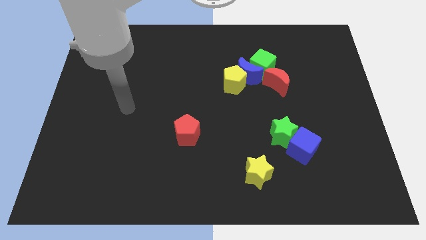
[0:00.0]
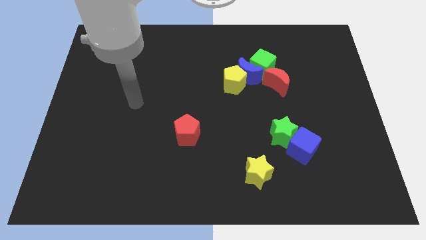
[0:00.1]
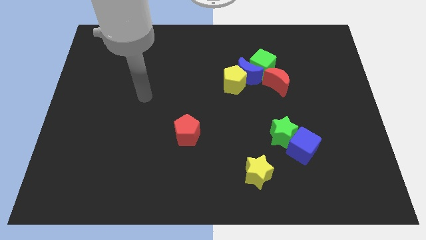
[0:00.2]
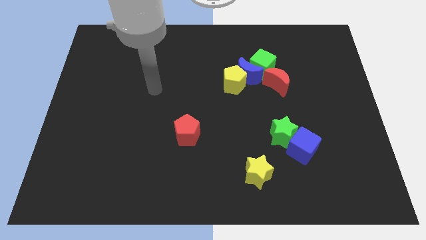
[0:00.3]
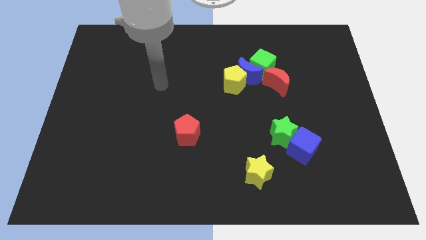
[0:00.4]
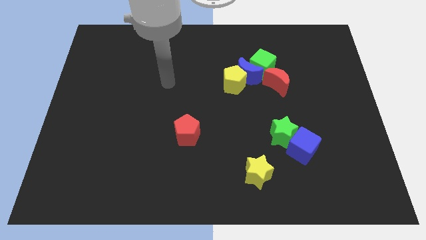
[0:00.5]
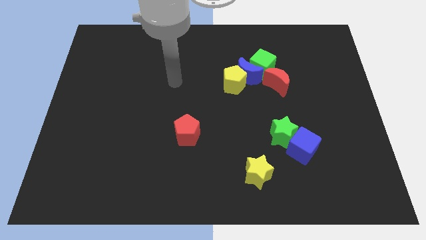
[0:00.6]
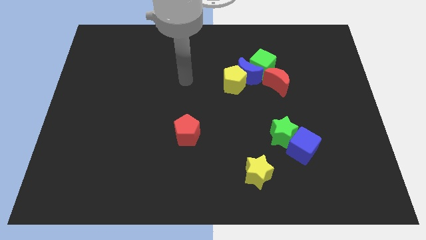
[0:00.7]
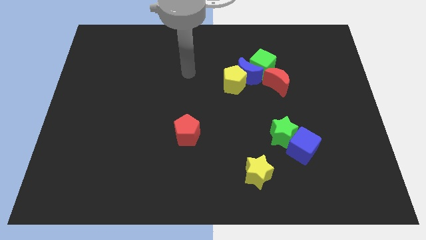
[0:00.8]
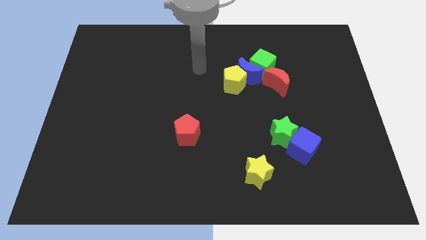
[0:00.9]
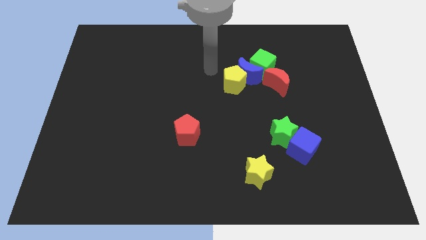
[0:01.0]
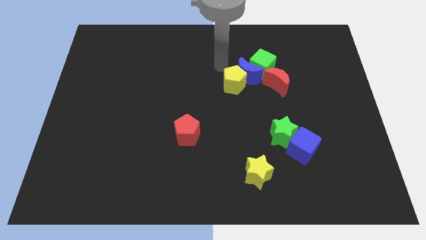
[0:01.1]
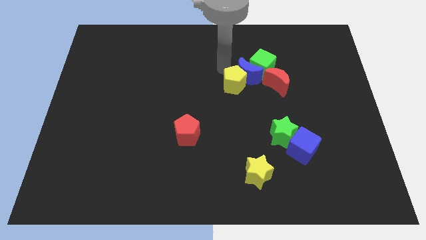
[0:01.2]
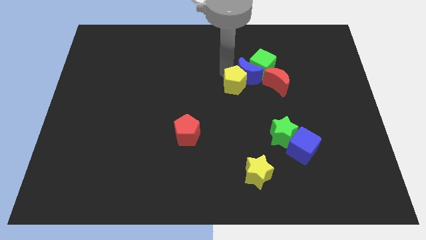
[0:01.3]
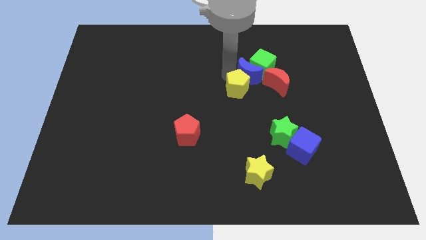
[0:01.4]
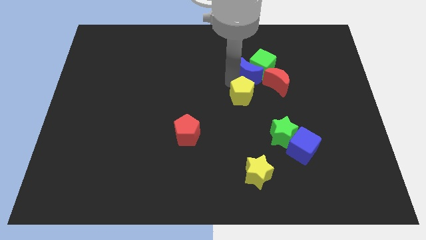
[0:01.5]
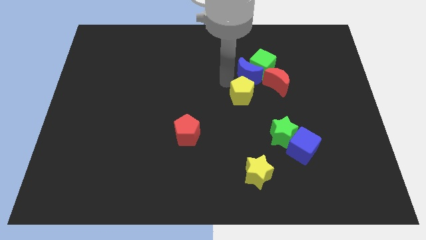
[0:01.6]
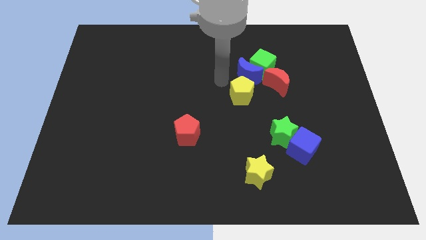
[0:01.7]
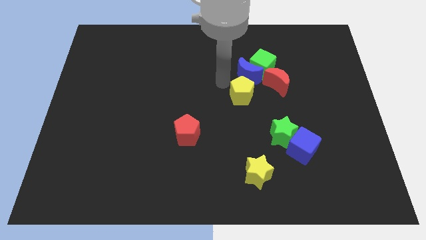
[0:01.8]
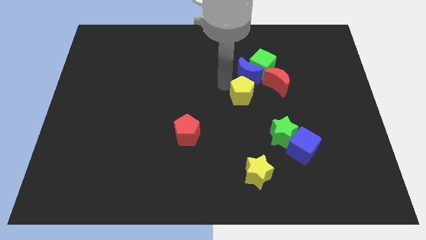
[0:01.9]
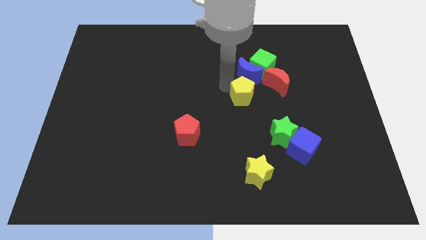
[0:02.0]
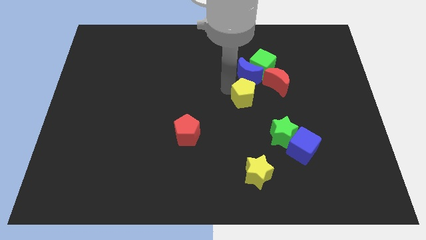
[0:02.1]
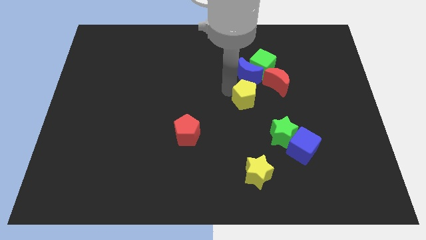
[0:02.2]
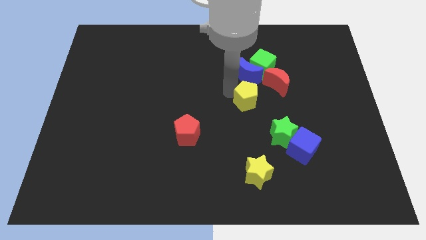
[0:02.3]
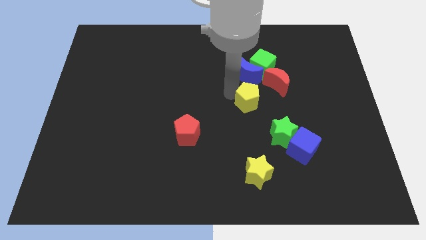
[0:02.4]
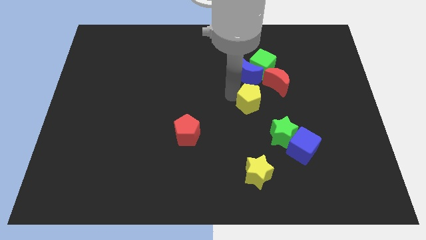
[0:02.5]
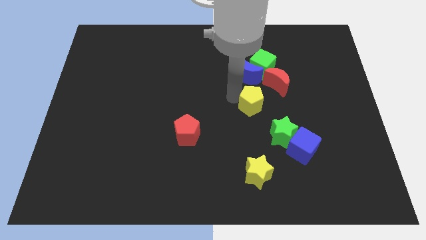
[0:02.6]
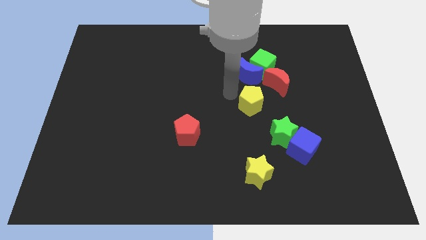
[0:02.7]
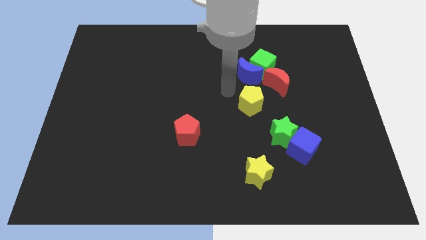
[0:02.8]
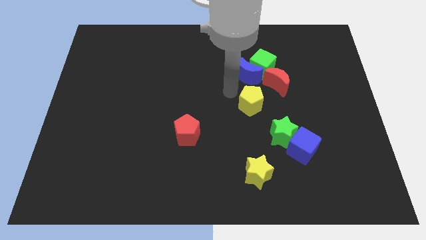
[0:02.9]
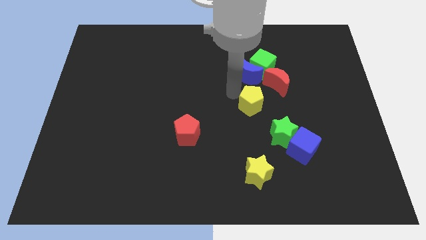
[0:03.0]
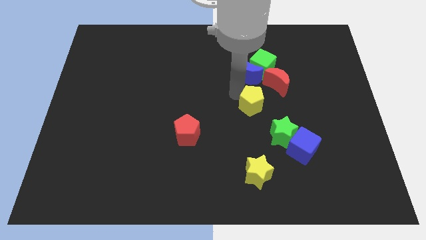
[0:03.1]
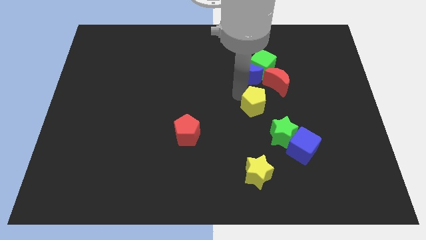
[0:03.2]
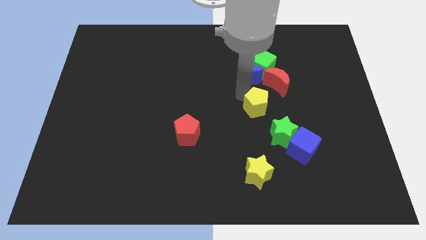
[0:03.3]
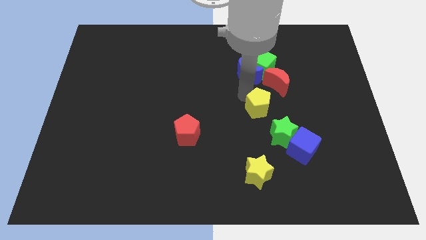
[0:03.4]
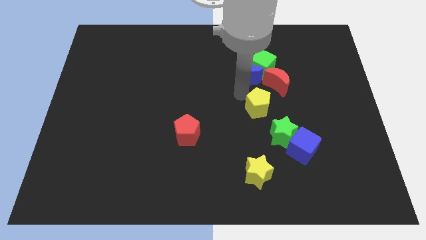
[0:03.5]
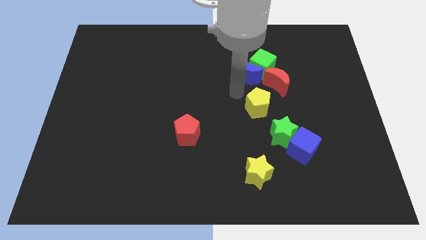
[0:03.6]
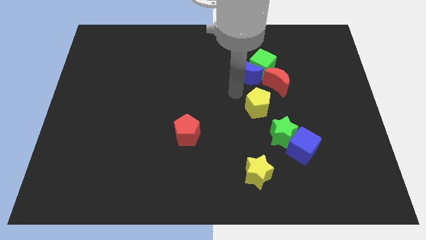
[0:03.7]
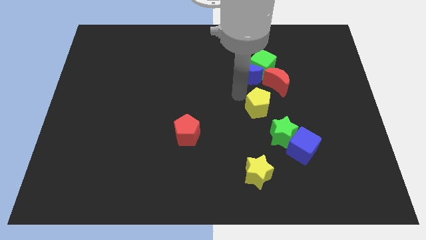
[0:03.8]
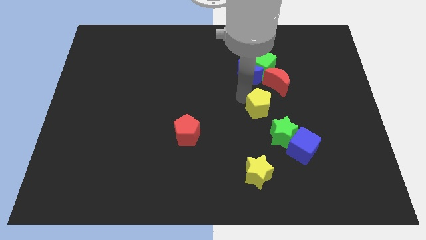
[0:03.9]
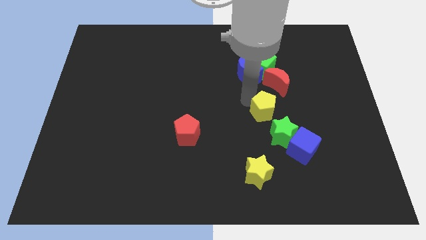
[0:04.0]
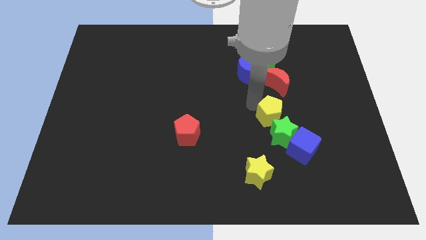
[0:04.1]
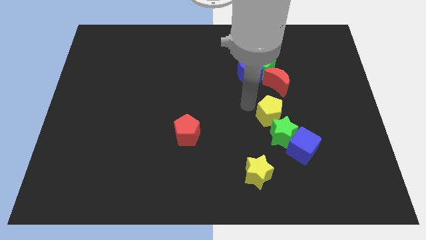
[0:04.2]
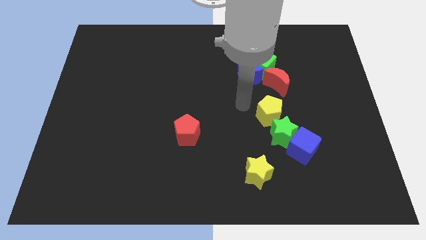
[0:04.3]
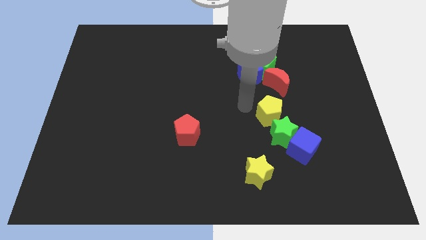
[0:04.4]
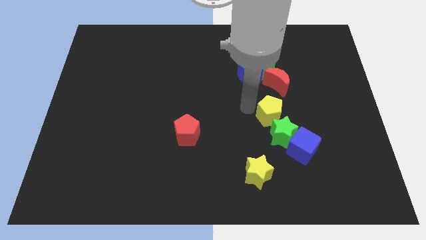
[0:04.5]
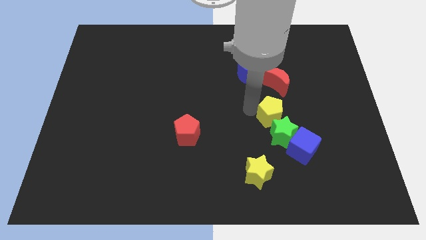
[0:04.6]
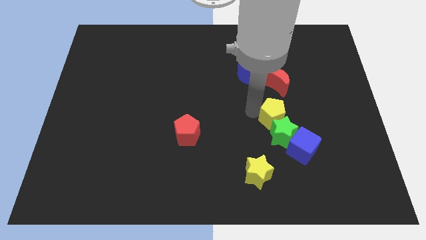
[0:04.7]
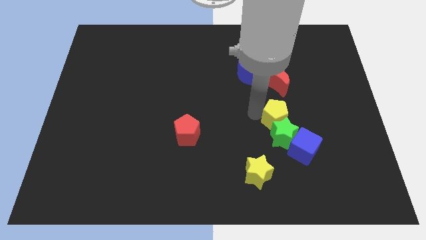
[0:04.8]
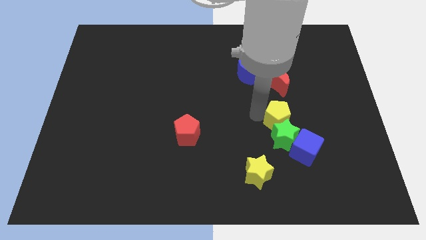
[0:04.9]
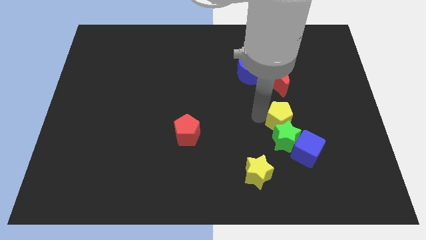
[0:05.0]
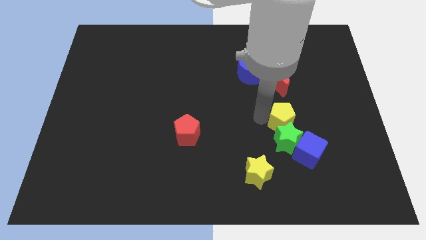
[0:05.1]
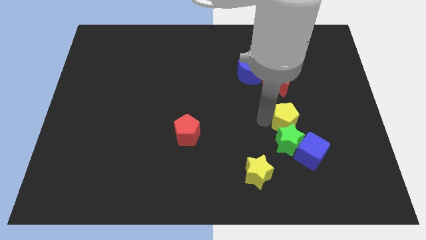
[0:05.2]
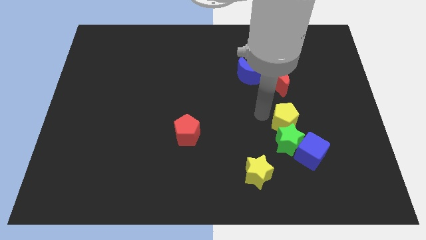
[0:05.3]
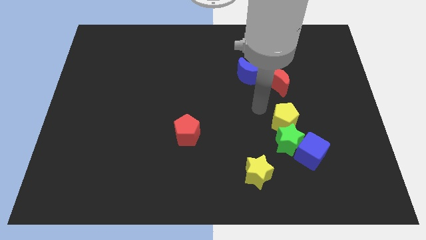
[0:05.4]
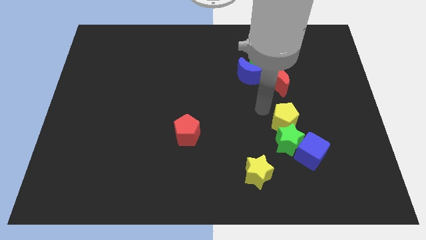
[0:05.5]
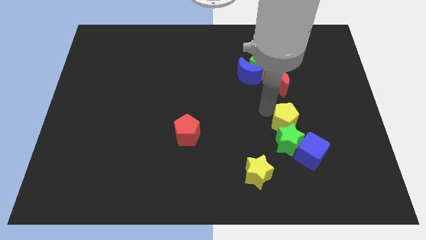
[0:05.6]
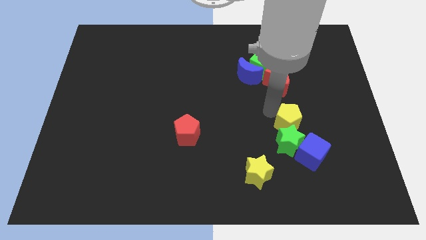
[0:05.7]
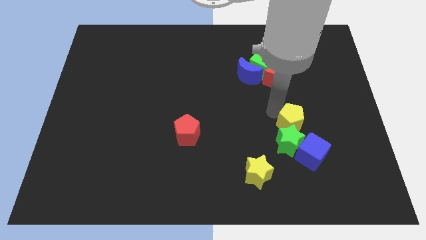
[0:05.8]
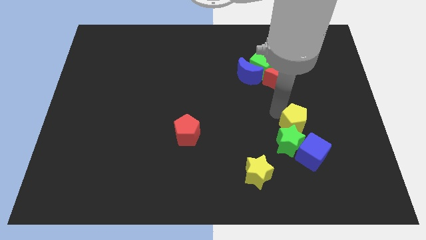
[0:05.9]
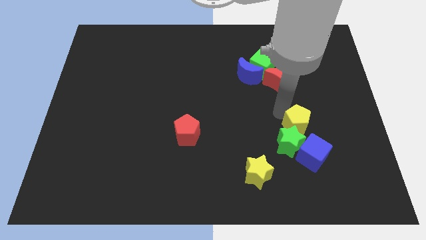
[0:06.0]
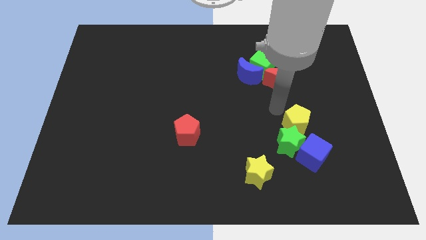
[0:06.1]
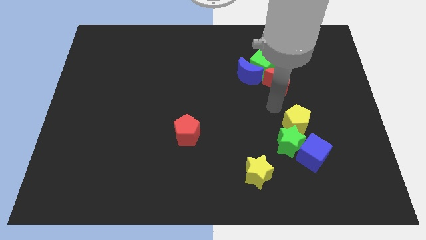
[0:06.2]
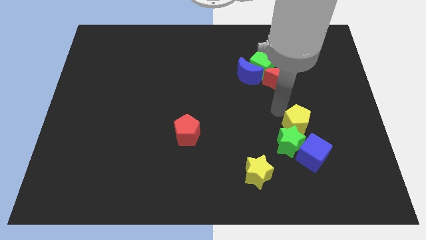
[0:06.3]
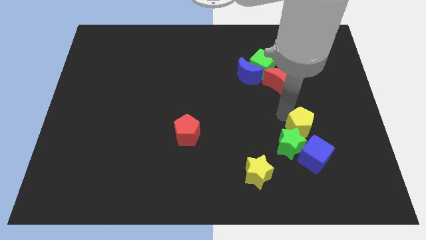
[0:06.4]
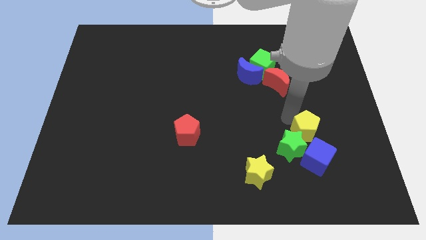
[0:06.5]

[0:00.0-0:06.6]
move the yellow pentagon down and to the right diagonally

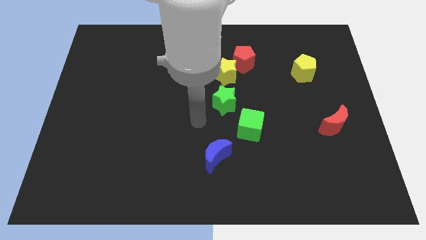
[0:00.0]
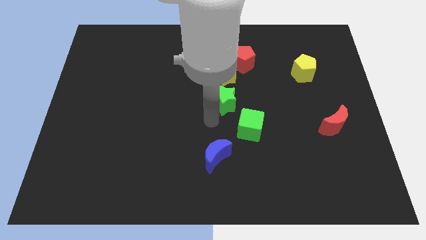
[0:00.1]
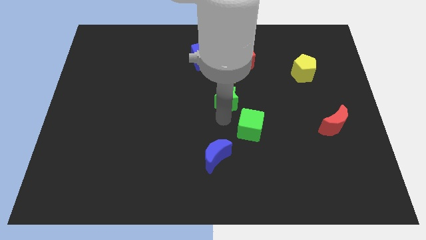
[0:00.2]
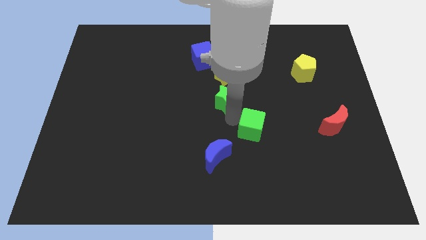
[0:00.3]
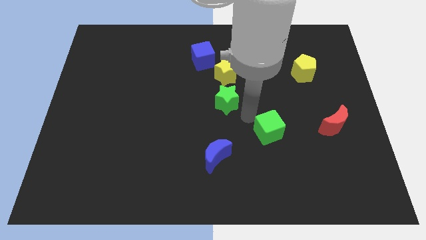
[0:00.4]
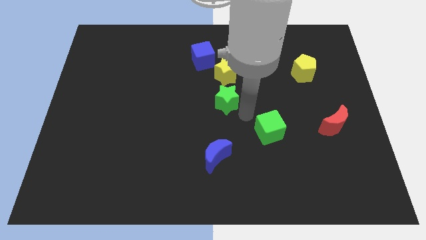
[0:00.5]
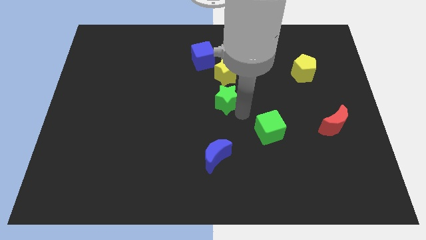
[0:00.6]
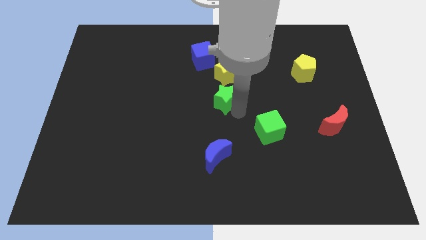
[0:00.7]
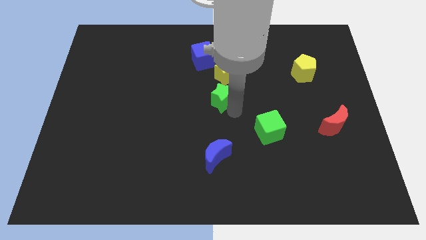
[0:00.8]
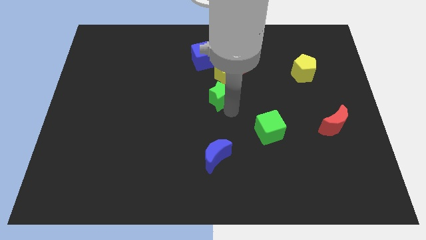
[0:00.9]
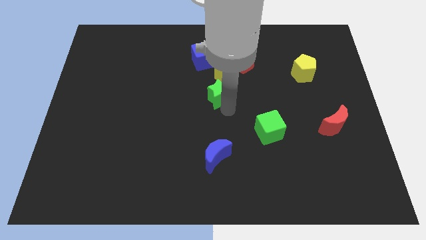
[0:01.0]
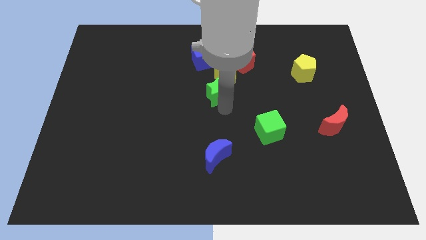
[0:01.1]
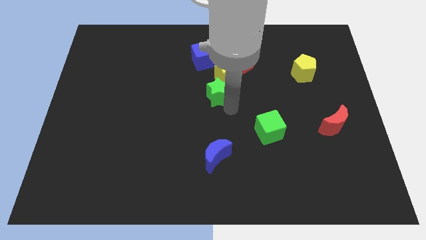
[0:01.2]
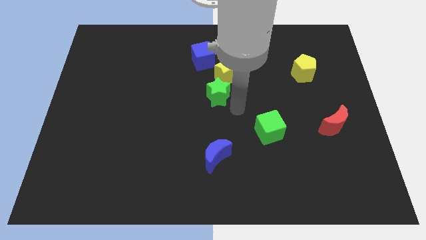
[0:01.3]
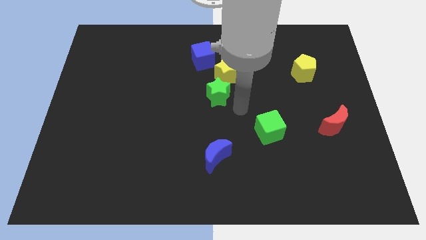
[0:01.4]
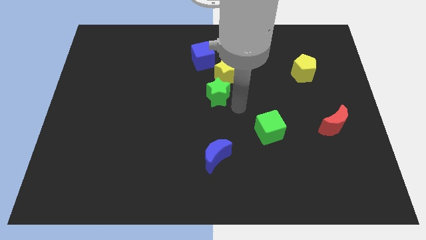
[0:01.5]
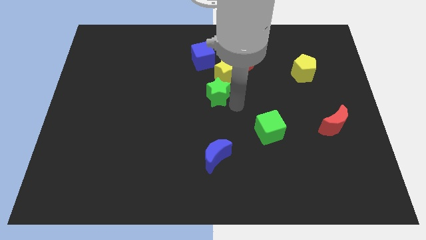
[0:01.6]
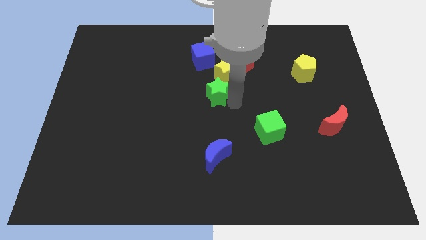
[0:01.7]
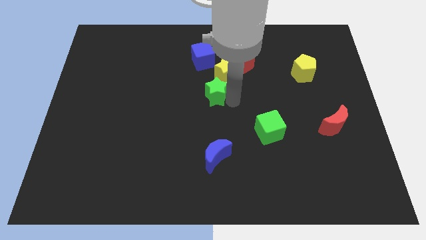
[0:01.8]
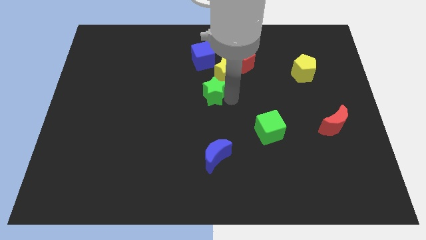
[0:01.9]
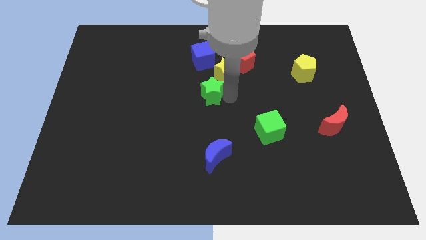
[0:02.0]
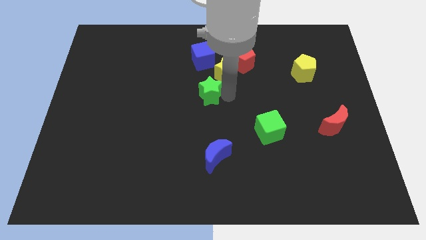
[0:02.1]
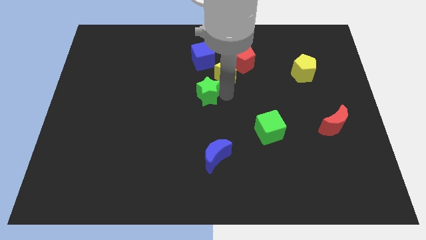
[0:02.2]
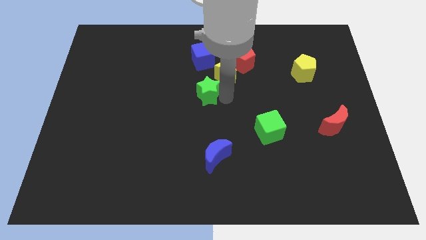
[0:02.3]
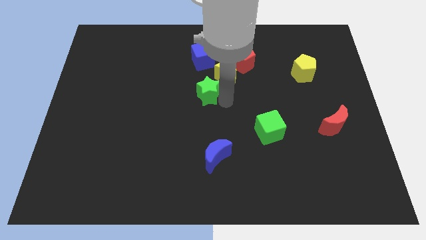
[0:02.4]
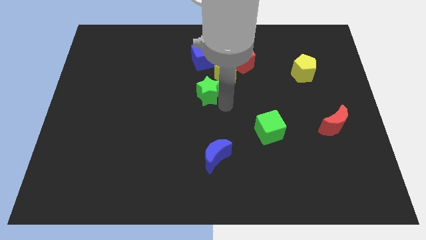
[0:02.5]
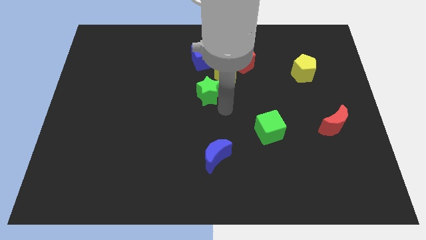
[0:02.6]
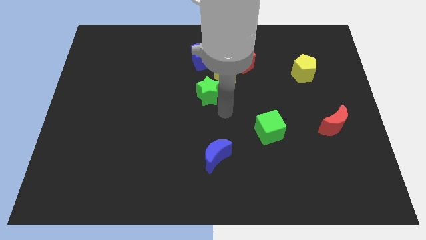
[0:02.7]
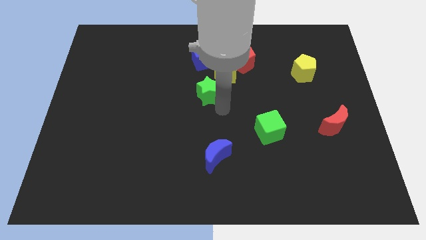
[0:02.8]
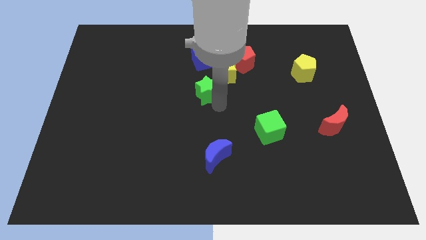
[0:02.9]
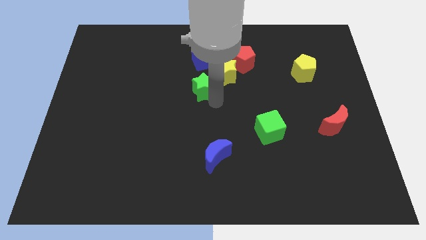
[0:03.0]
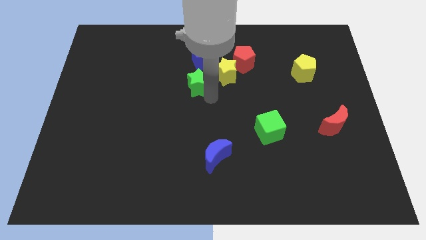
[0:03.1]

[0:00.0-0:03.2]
slightly move the green star diagonally upwards and left
